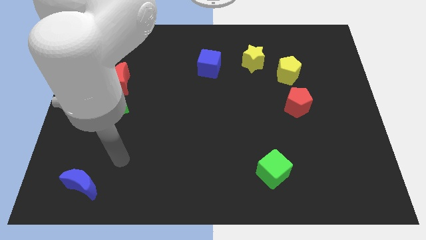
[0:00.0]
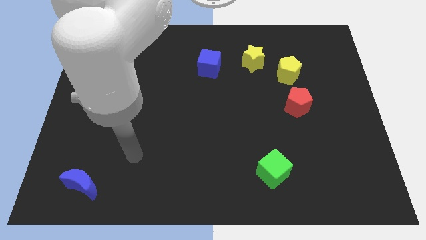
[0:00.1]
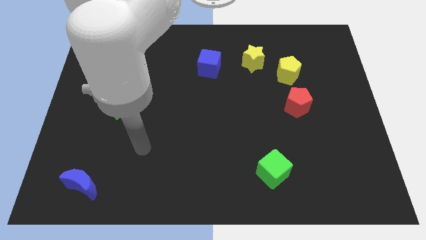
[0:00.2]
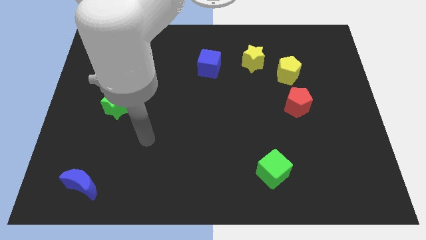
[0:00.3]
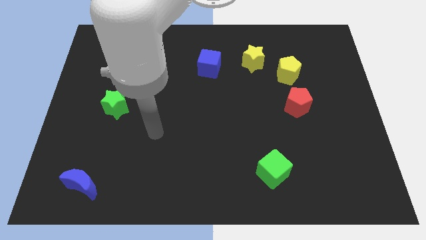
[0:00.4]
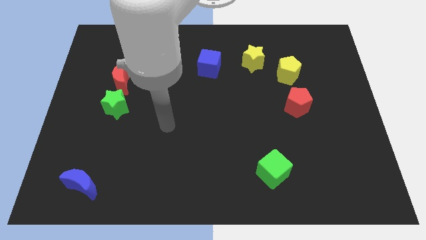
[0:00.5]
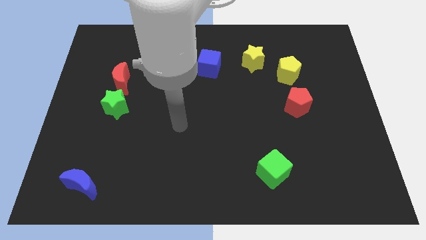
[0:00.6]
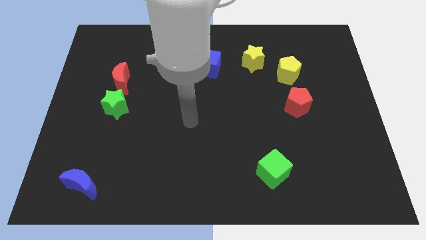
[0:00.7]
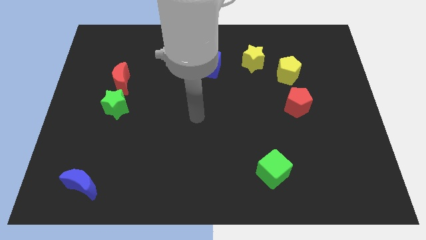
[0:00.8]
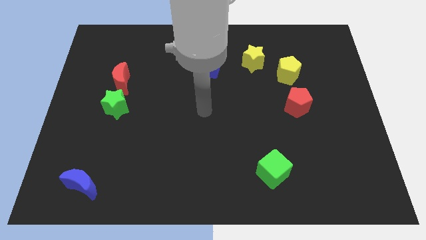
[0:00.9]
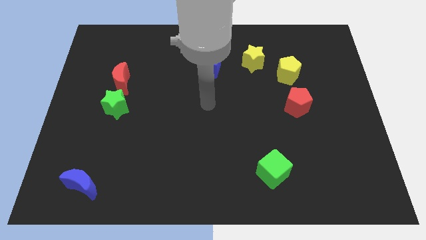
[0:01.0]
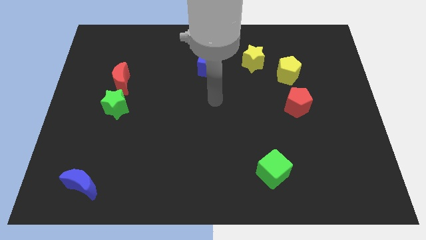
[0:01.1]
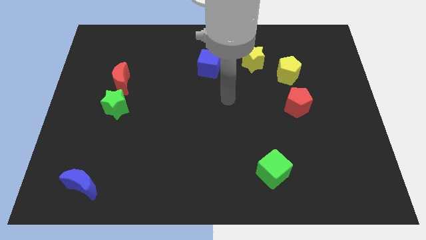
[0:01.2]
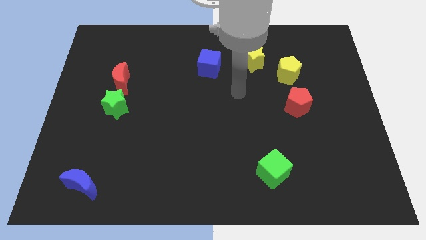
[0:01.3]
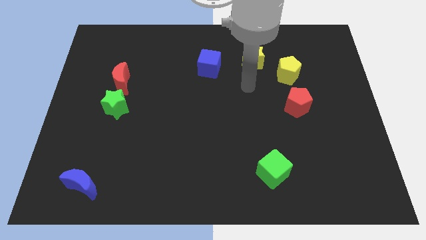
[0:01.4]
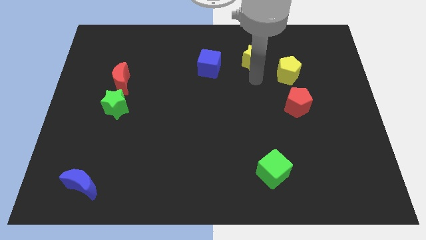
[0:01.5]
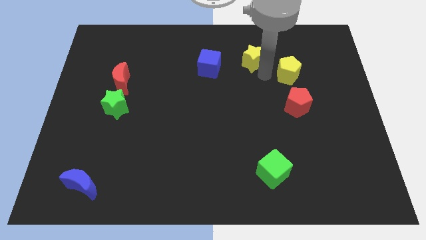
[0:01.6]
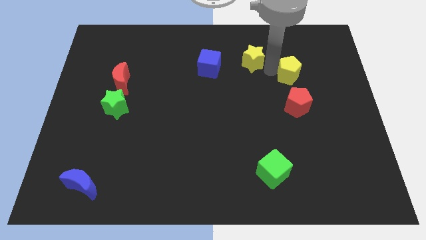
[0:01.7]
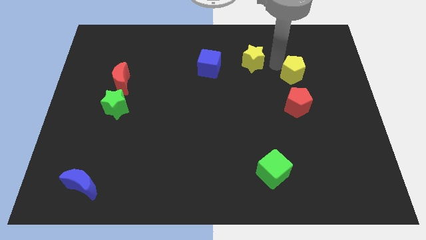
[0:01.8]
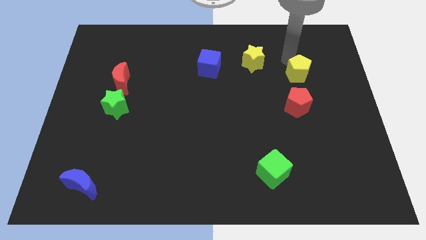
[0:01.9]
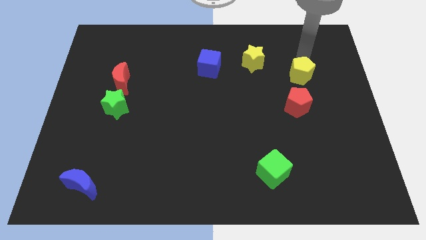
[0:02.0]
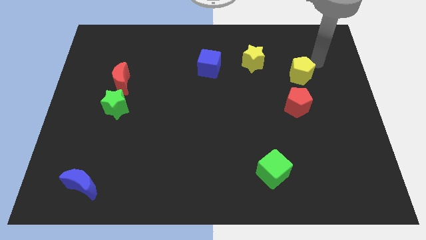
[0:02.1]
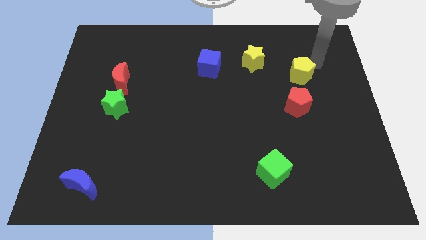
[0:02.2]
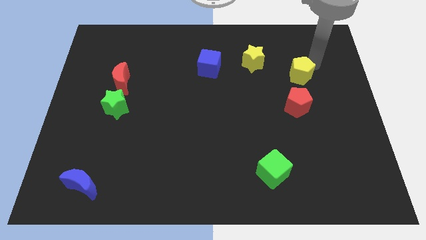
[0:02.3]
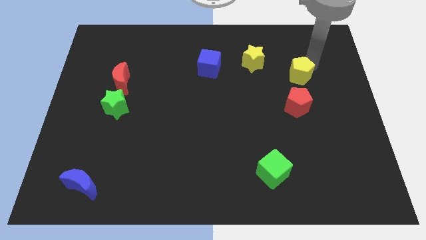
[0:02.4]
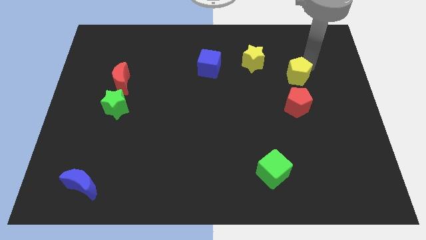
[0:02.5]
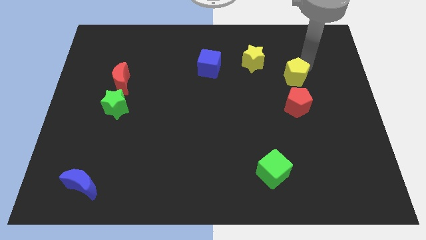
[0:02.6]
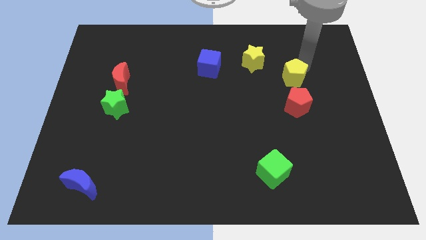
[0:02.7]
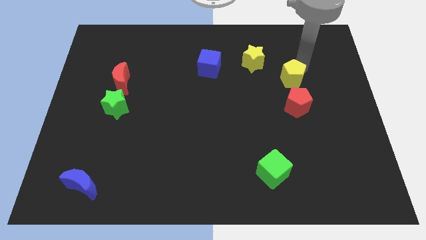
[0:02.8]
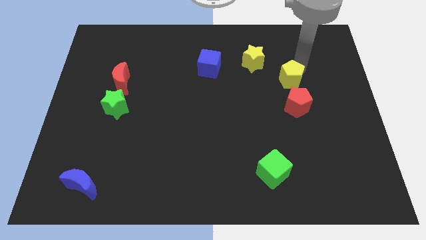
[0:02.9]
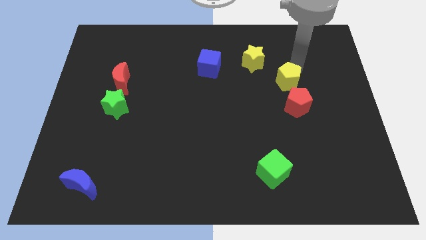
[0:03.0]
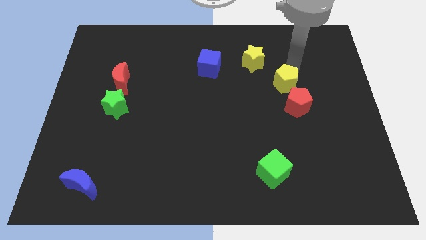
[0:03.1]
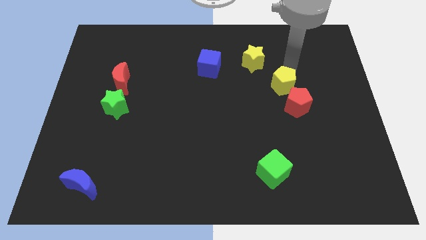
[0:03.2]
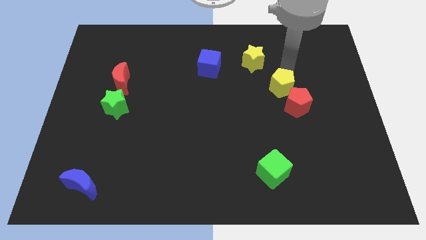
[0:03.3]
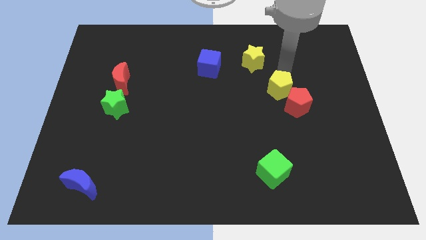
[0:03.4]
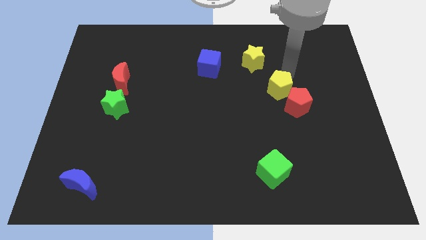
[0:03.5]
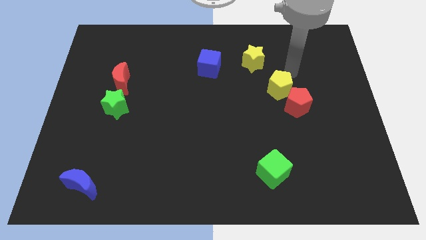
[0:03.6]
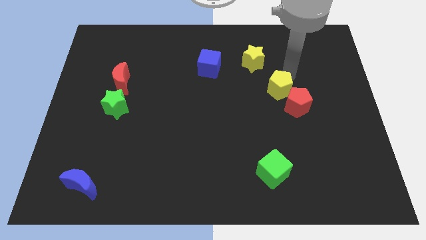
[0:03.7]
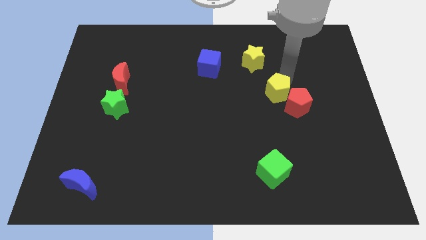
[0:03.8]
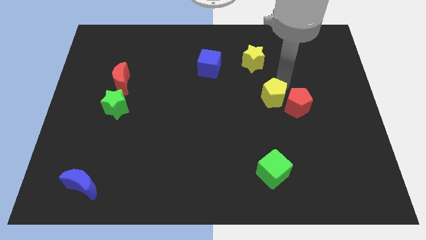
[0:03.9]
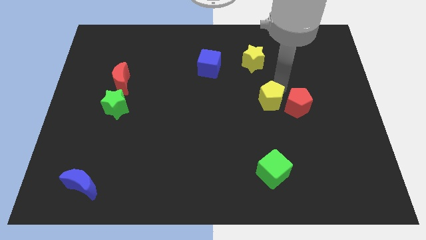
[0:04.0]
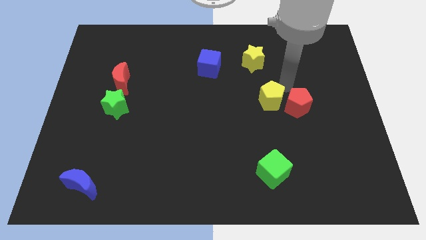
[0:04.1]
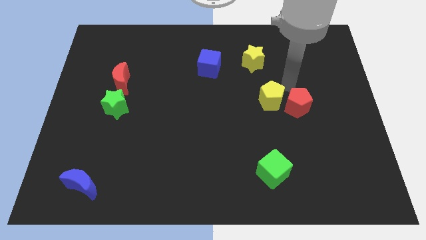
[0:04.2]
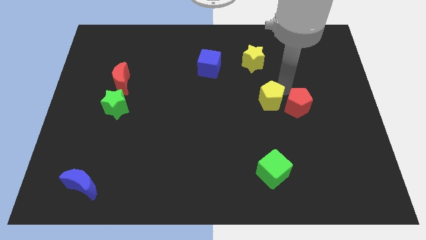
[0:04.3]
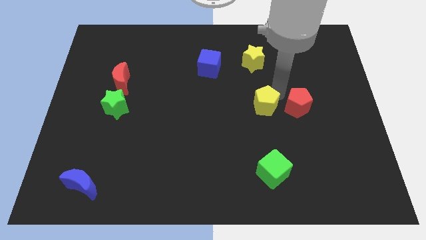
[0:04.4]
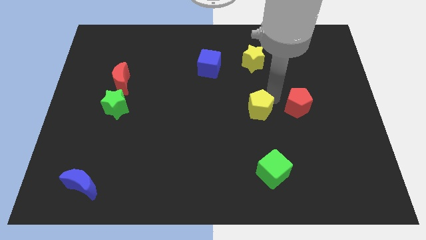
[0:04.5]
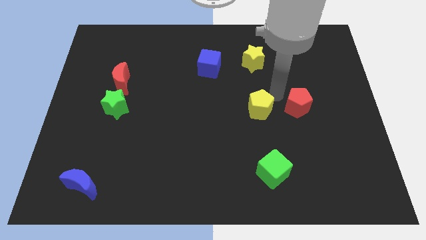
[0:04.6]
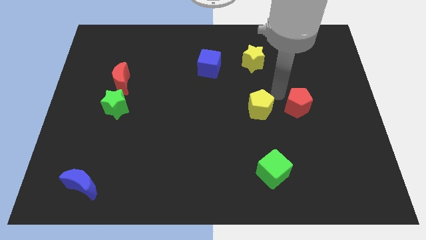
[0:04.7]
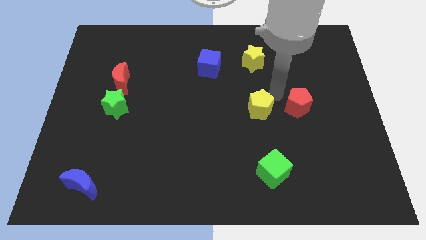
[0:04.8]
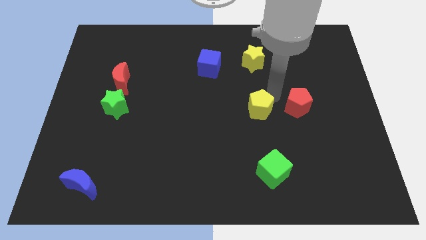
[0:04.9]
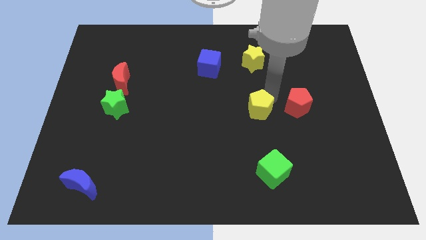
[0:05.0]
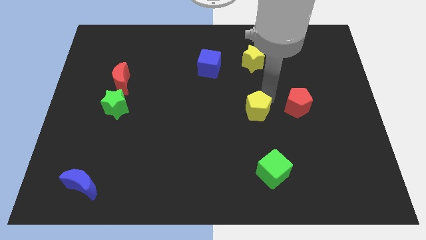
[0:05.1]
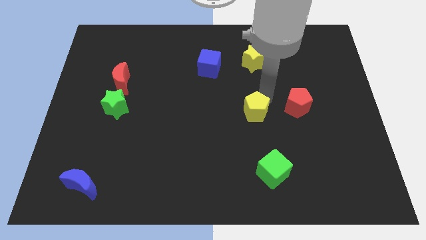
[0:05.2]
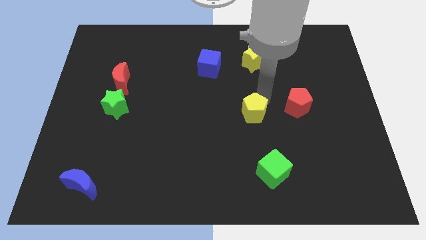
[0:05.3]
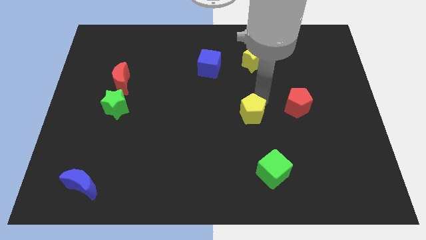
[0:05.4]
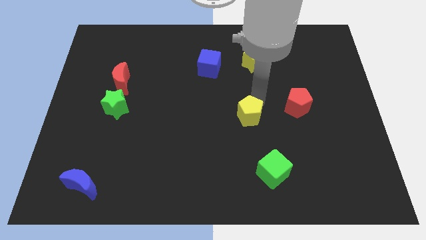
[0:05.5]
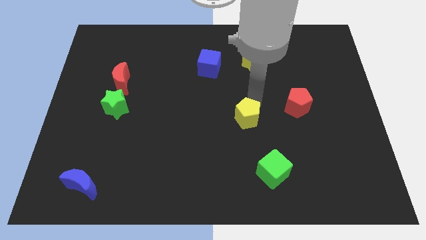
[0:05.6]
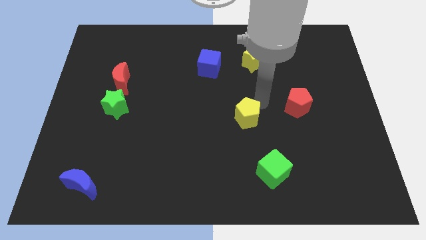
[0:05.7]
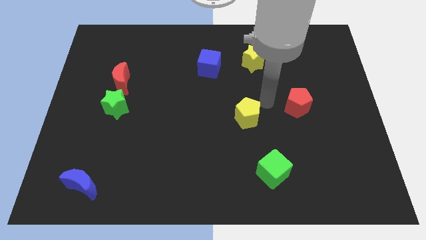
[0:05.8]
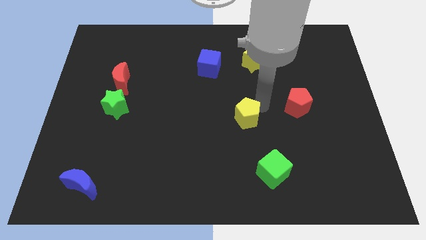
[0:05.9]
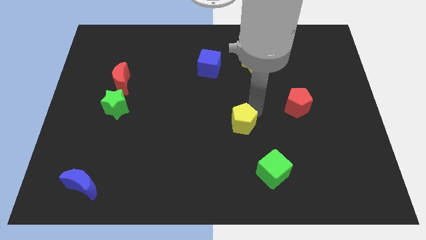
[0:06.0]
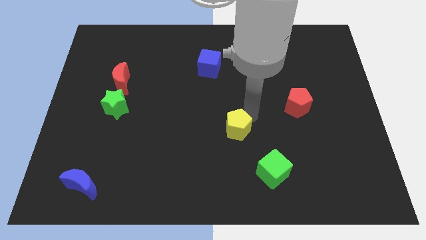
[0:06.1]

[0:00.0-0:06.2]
slide the yellow pentagon diagonally downwards and left

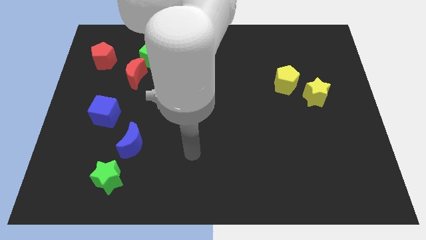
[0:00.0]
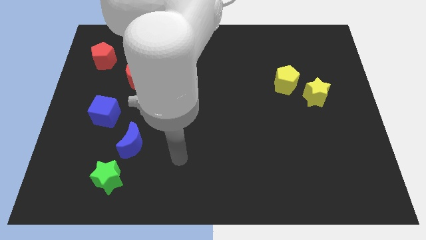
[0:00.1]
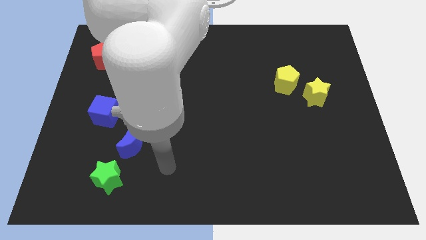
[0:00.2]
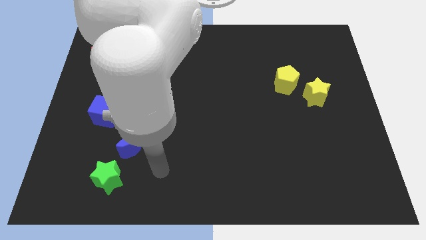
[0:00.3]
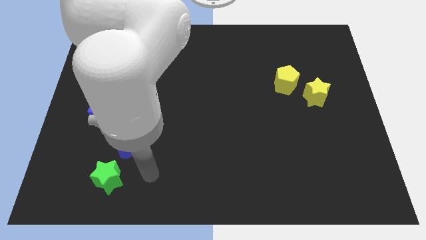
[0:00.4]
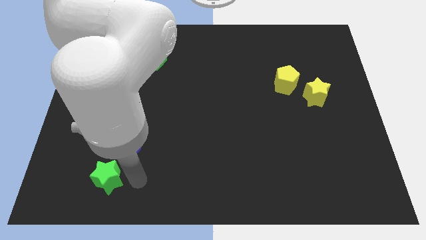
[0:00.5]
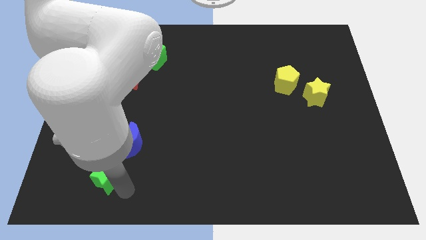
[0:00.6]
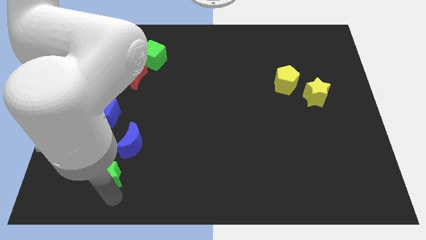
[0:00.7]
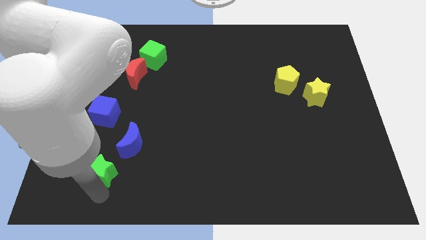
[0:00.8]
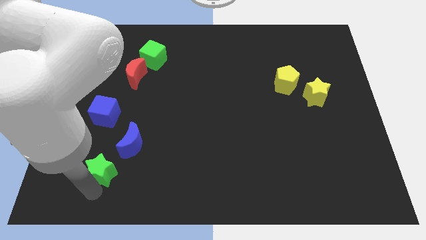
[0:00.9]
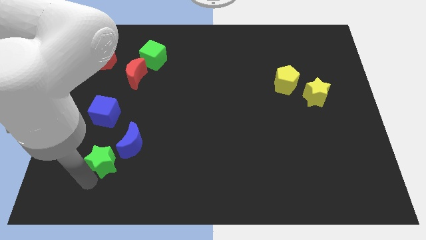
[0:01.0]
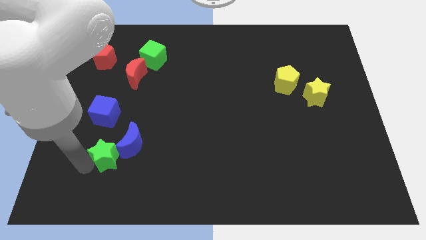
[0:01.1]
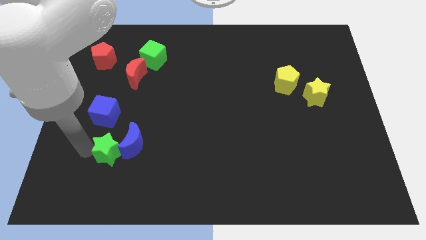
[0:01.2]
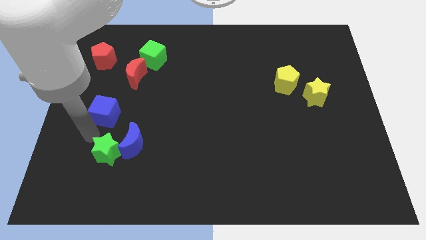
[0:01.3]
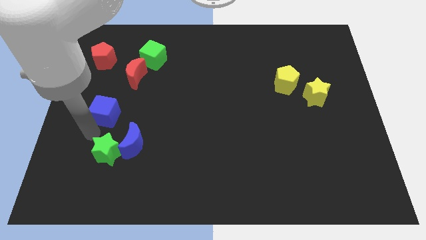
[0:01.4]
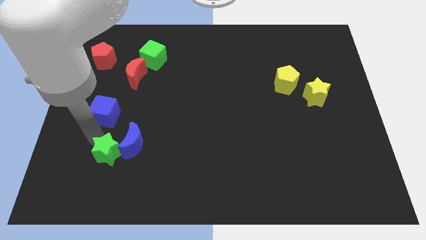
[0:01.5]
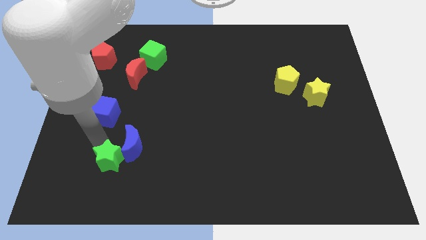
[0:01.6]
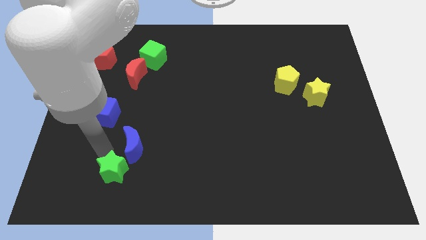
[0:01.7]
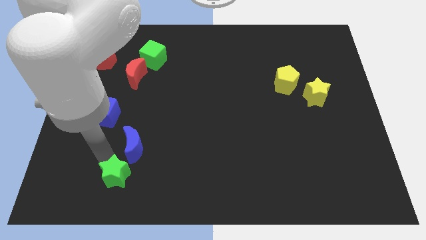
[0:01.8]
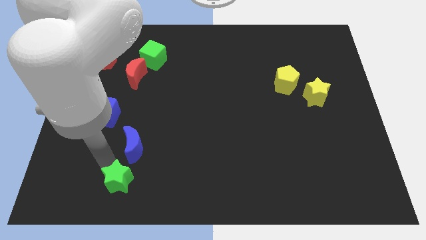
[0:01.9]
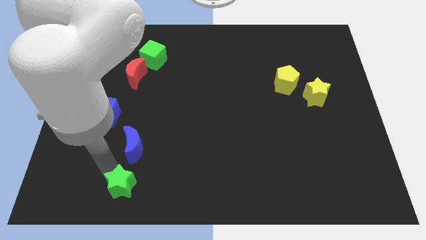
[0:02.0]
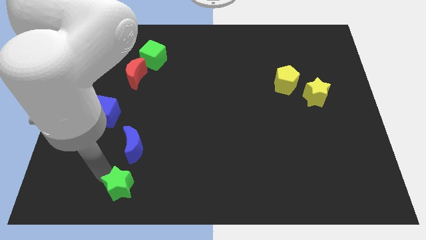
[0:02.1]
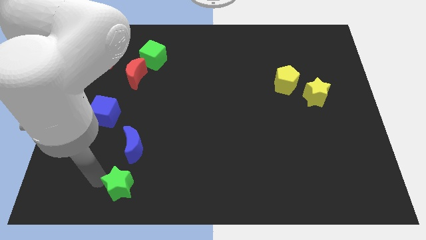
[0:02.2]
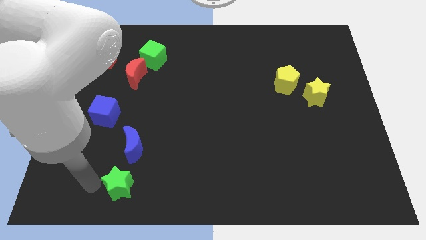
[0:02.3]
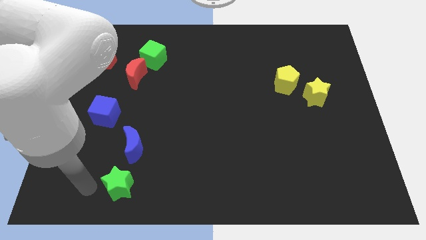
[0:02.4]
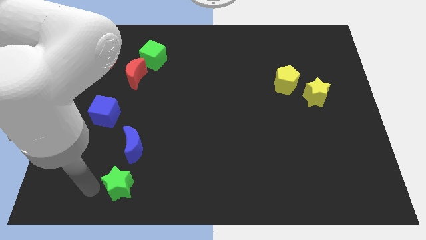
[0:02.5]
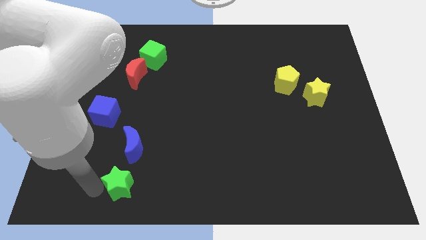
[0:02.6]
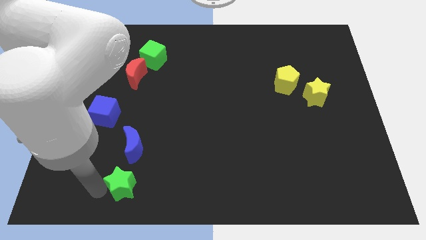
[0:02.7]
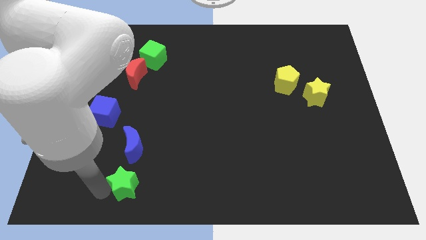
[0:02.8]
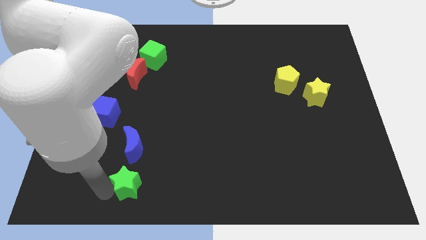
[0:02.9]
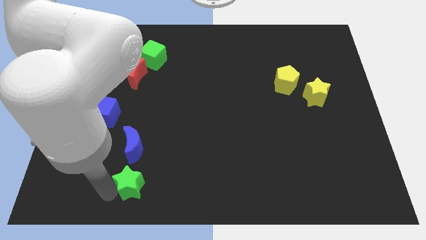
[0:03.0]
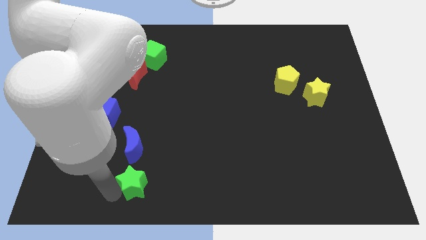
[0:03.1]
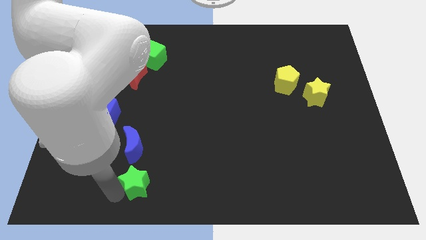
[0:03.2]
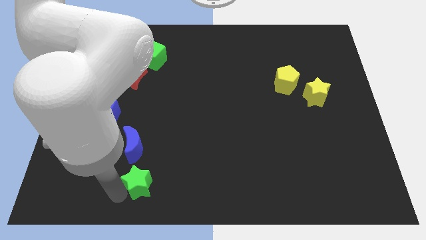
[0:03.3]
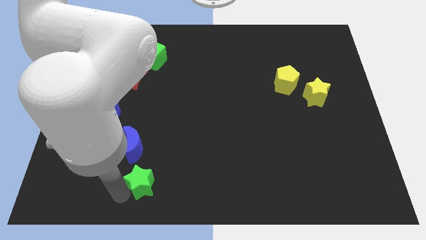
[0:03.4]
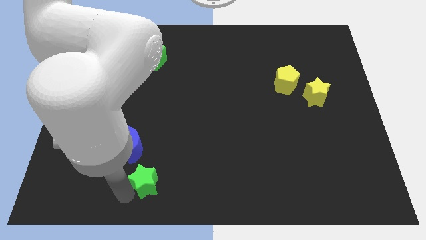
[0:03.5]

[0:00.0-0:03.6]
move the green star to the right a bit
